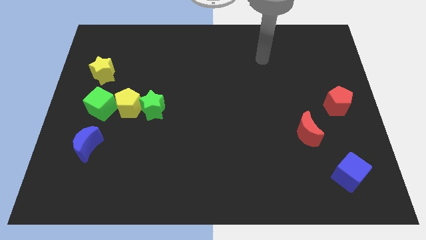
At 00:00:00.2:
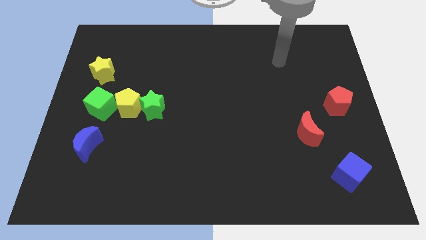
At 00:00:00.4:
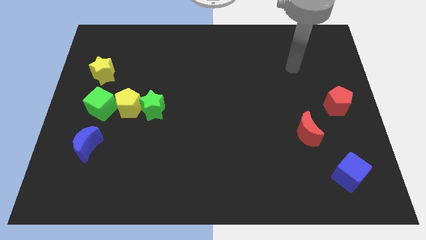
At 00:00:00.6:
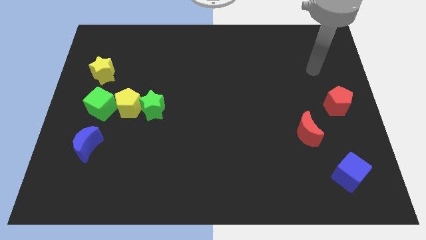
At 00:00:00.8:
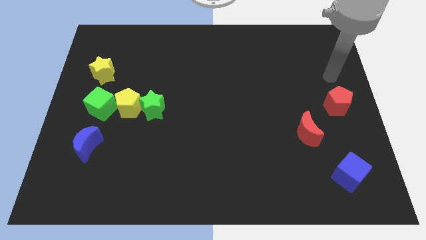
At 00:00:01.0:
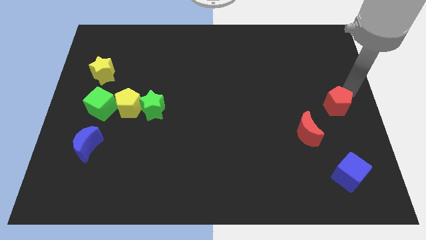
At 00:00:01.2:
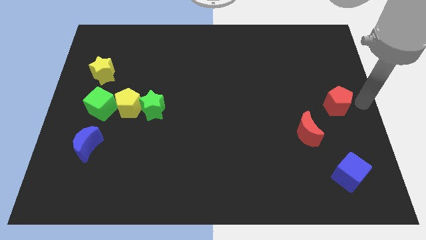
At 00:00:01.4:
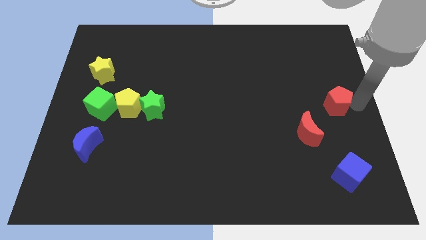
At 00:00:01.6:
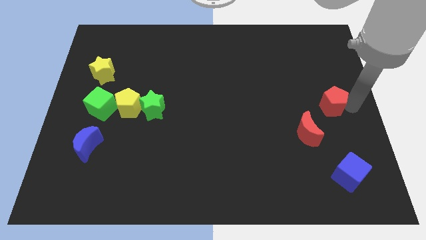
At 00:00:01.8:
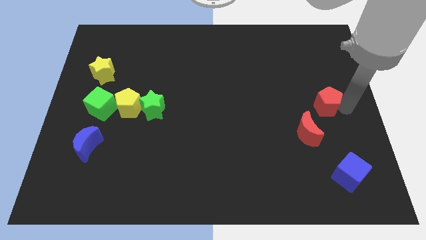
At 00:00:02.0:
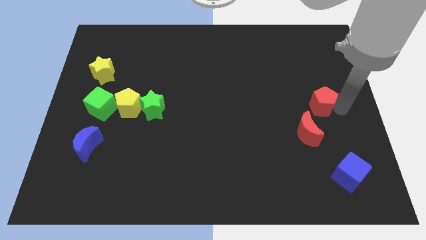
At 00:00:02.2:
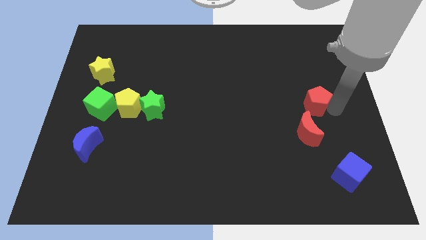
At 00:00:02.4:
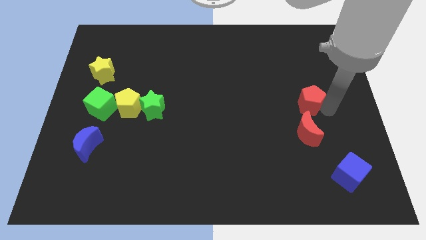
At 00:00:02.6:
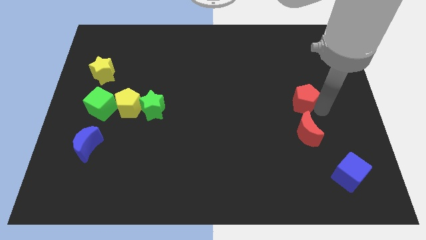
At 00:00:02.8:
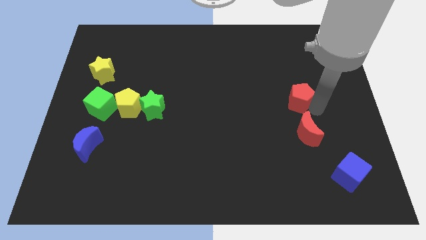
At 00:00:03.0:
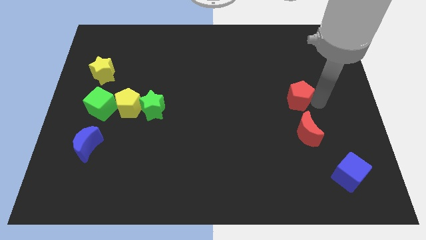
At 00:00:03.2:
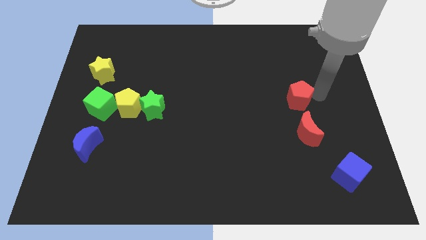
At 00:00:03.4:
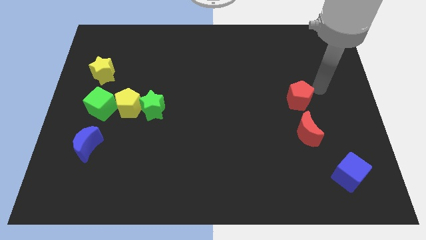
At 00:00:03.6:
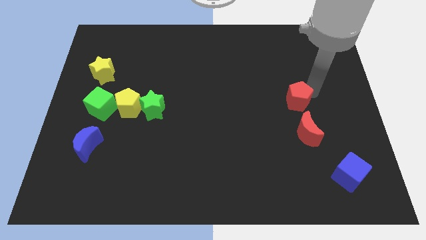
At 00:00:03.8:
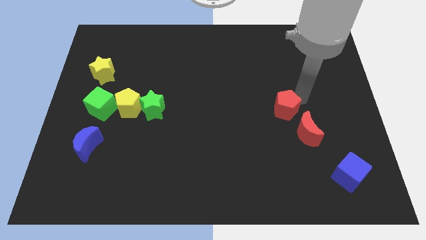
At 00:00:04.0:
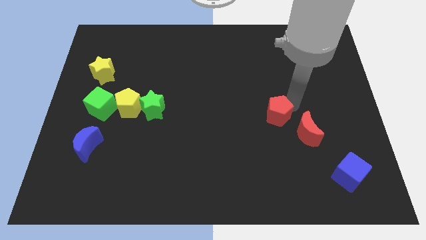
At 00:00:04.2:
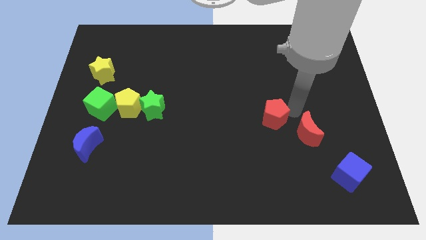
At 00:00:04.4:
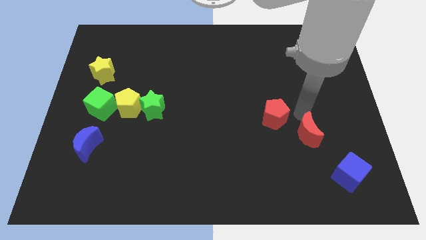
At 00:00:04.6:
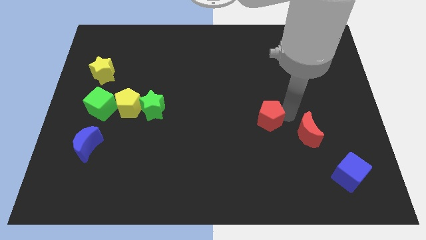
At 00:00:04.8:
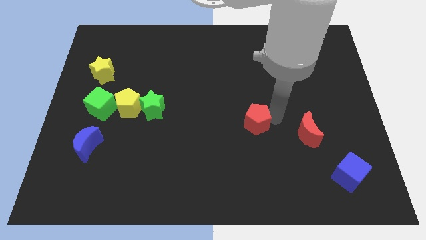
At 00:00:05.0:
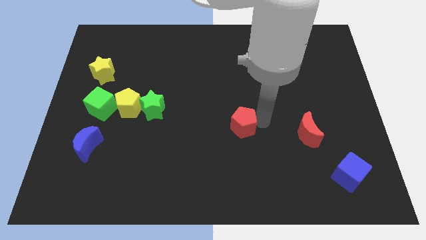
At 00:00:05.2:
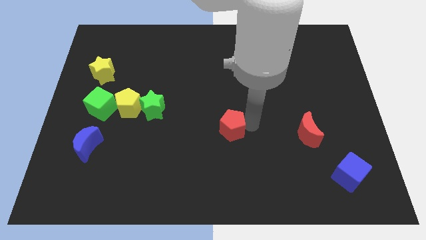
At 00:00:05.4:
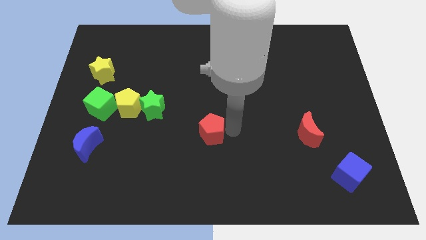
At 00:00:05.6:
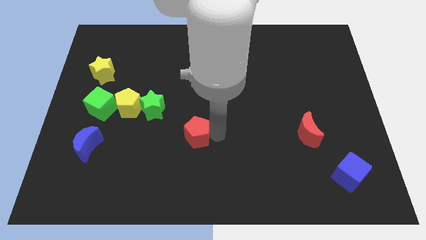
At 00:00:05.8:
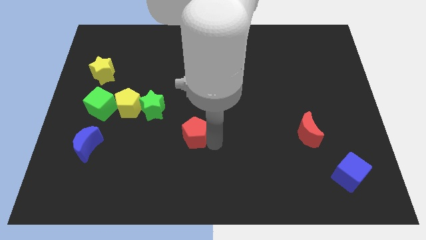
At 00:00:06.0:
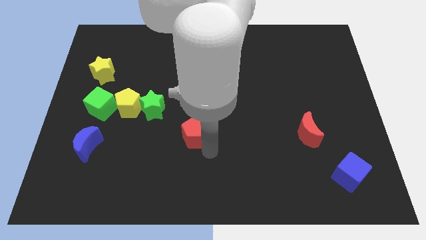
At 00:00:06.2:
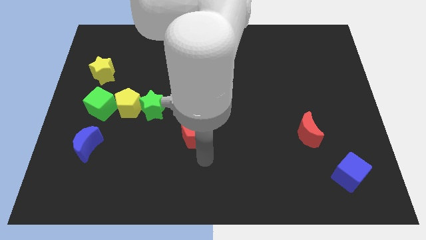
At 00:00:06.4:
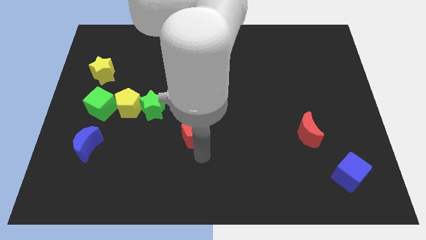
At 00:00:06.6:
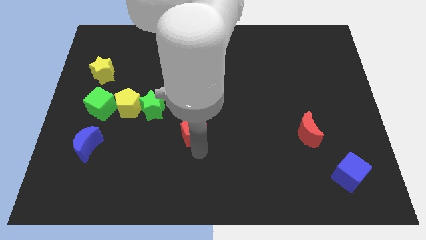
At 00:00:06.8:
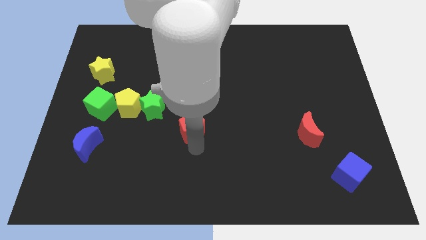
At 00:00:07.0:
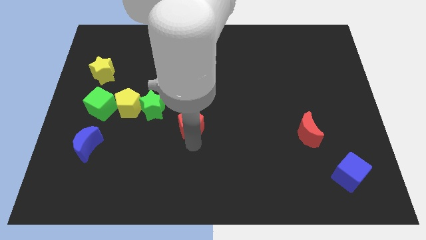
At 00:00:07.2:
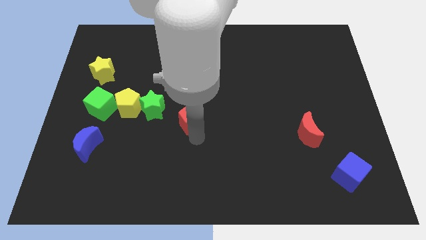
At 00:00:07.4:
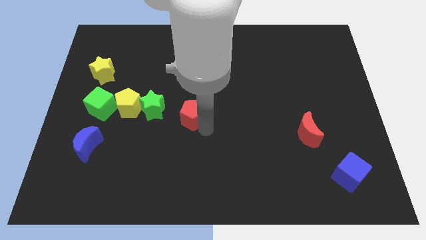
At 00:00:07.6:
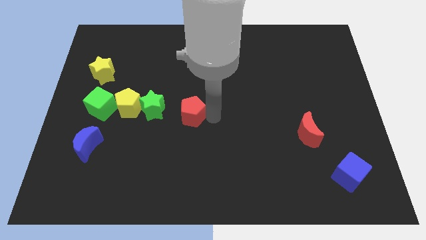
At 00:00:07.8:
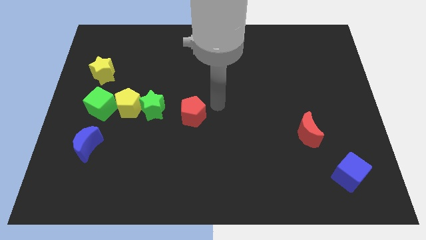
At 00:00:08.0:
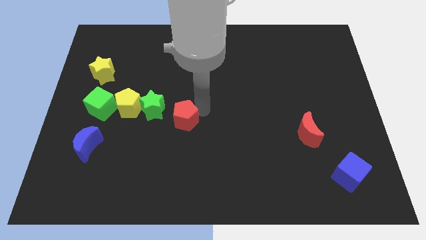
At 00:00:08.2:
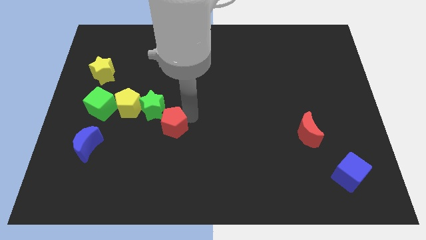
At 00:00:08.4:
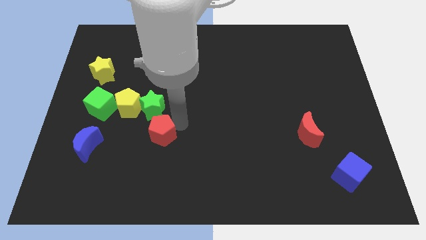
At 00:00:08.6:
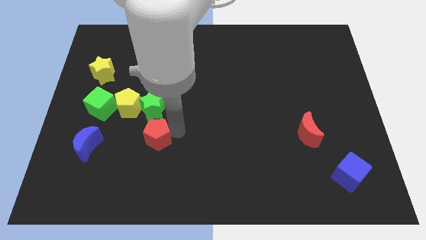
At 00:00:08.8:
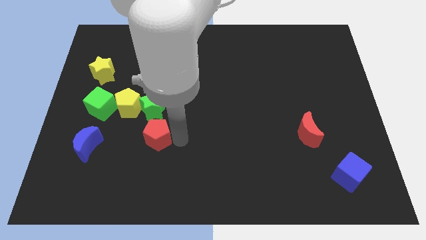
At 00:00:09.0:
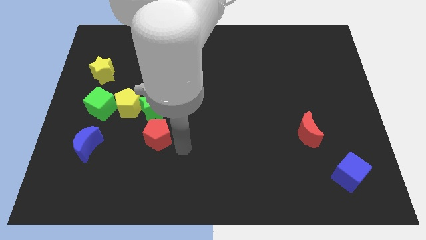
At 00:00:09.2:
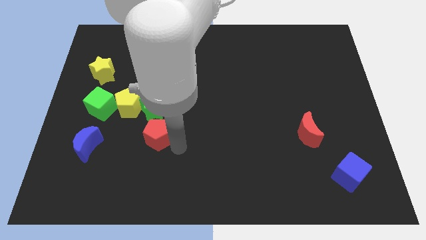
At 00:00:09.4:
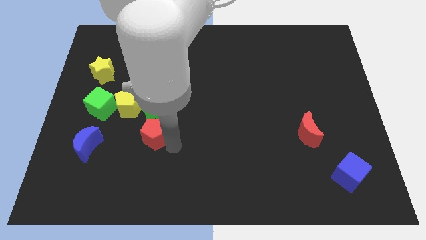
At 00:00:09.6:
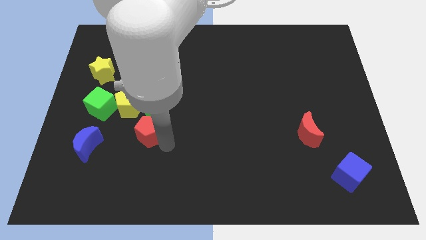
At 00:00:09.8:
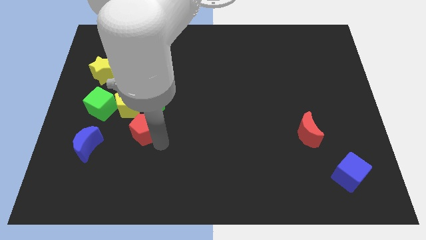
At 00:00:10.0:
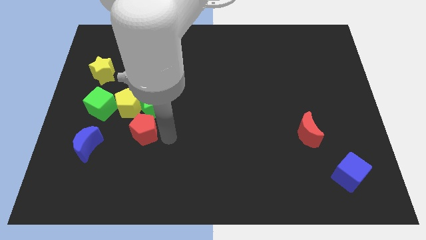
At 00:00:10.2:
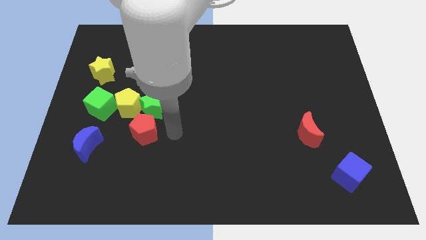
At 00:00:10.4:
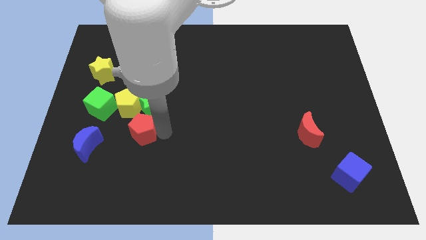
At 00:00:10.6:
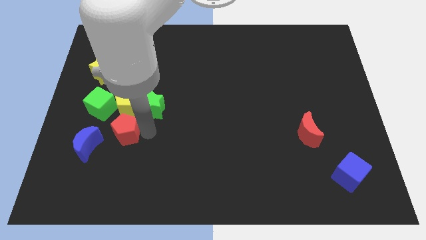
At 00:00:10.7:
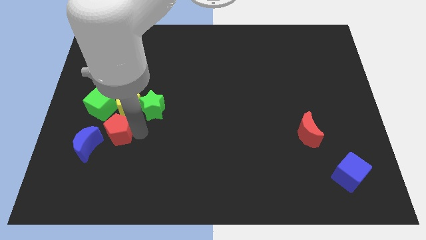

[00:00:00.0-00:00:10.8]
push the red pentagon to the bottom left side of the yellow pentagon

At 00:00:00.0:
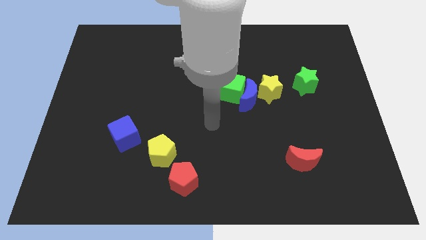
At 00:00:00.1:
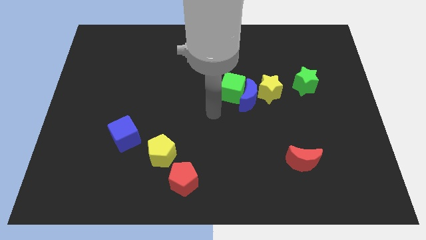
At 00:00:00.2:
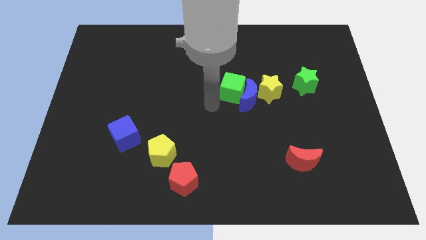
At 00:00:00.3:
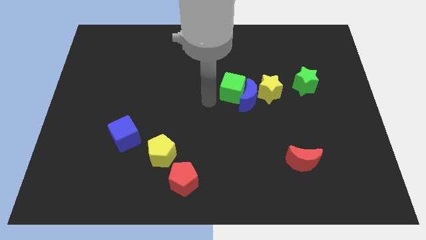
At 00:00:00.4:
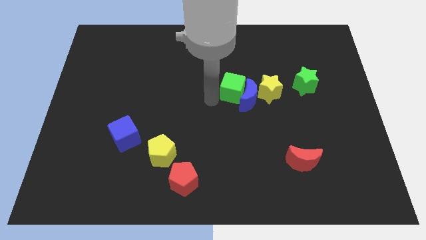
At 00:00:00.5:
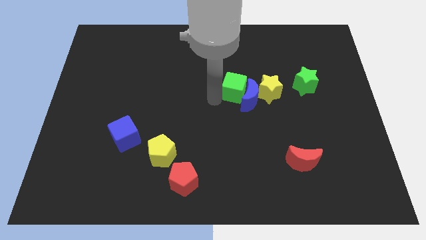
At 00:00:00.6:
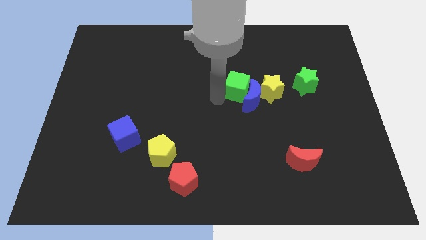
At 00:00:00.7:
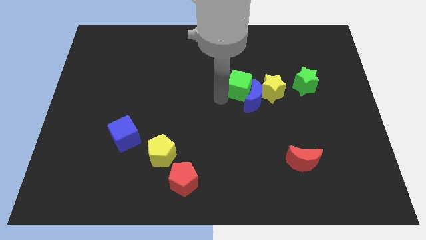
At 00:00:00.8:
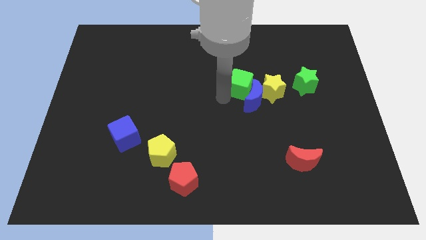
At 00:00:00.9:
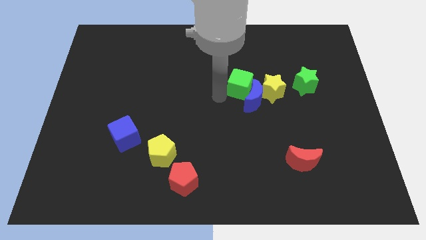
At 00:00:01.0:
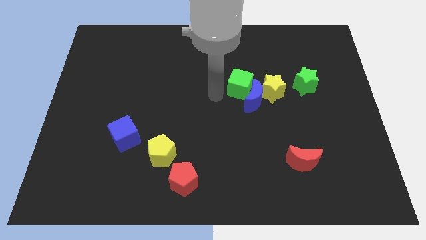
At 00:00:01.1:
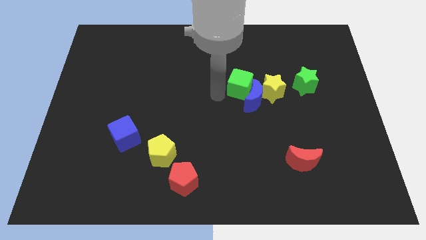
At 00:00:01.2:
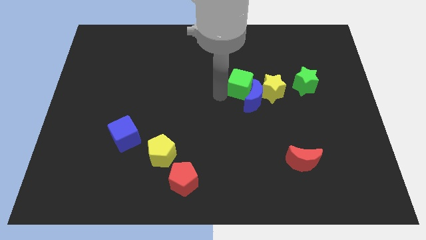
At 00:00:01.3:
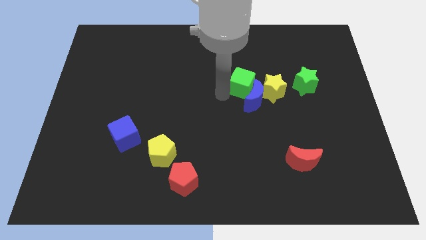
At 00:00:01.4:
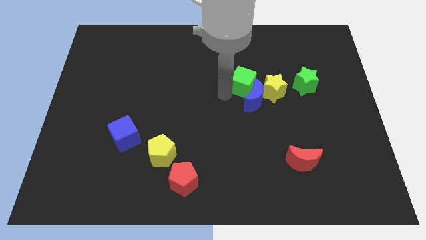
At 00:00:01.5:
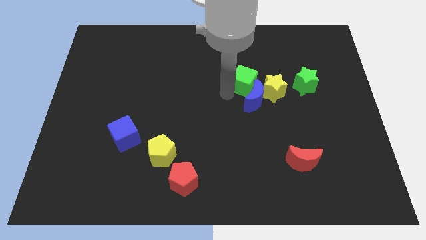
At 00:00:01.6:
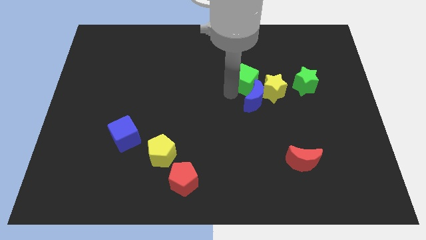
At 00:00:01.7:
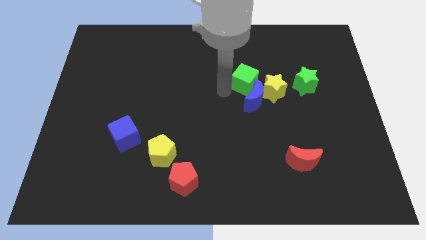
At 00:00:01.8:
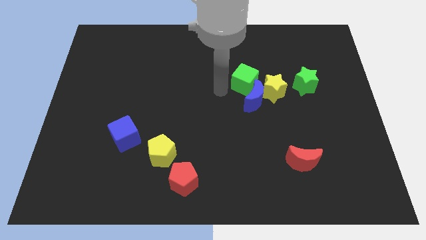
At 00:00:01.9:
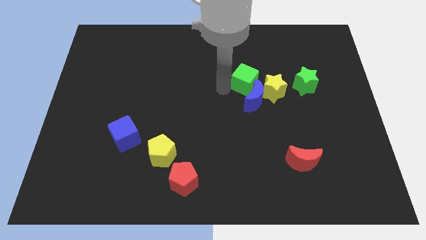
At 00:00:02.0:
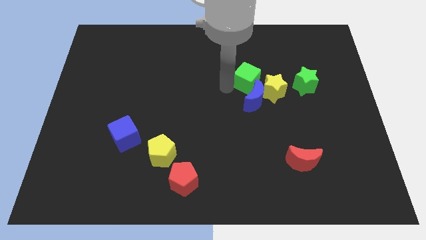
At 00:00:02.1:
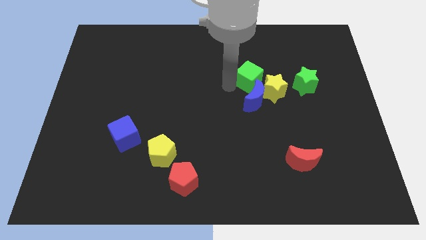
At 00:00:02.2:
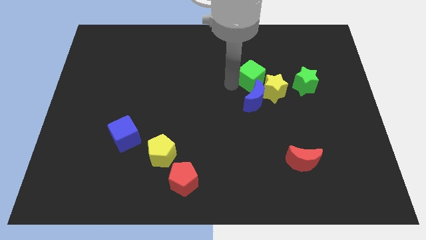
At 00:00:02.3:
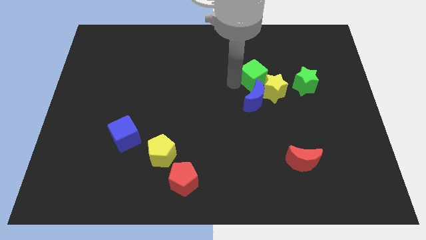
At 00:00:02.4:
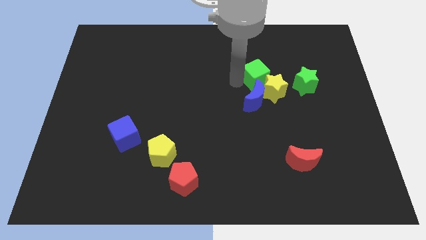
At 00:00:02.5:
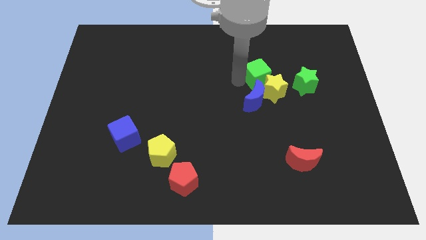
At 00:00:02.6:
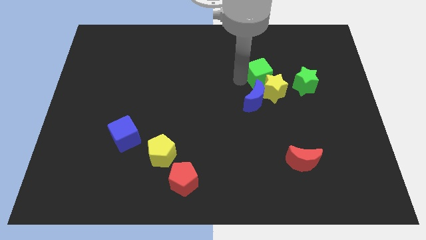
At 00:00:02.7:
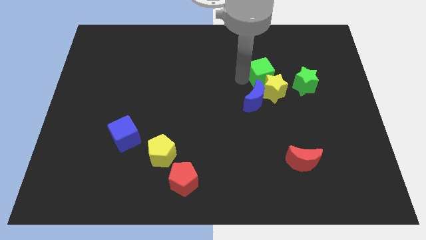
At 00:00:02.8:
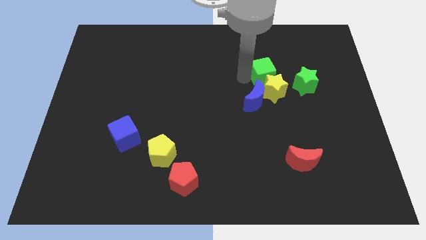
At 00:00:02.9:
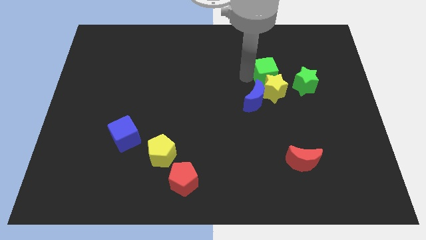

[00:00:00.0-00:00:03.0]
move the green cube to the top right side of the yellow star
